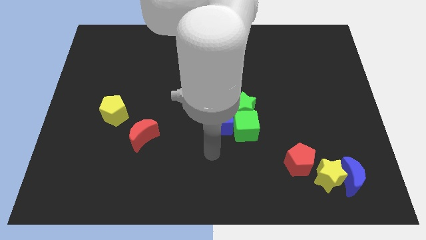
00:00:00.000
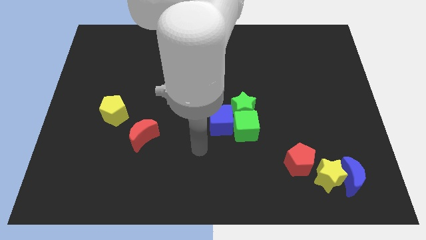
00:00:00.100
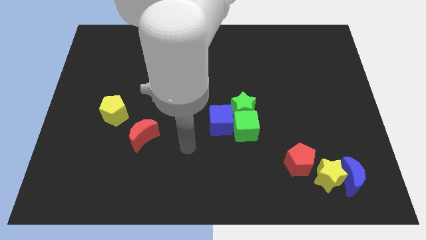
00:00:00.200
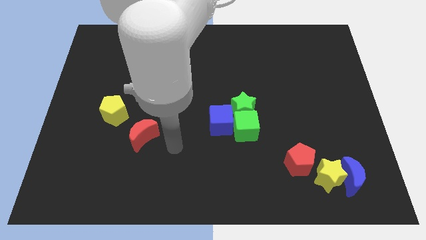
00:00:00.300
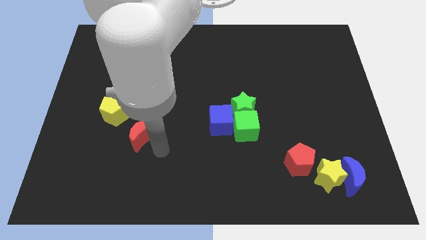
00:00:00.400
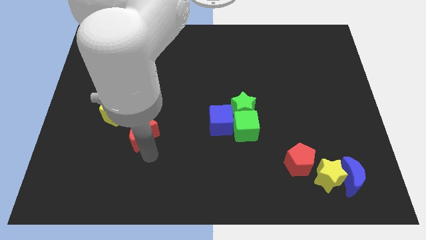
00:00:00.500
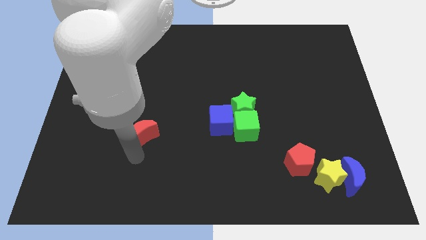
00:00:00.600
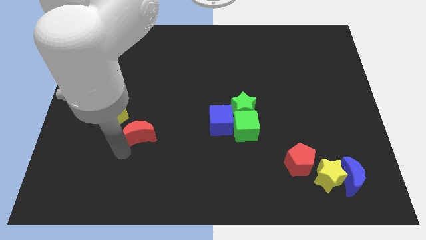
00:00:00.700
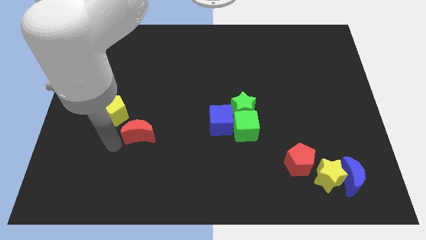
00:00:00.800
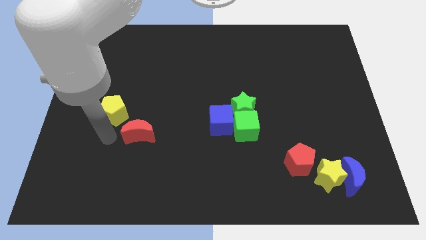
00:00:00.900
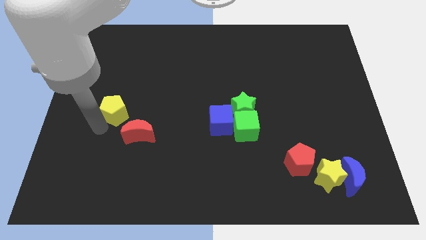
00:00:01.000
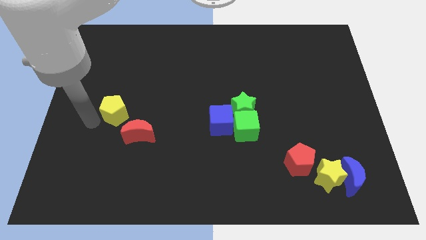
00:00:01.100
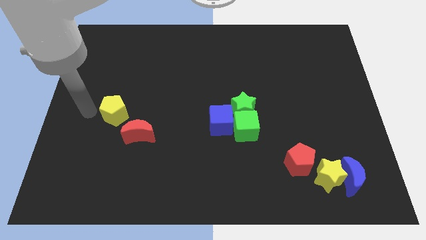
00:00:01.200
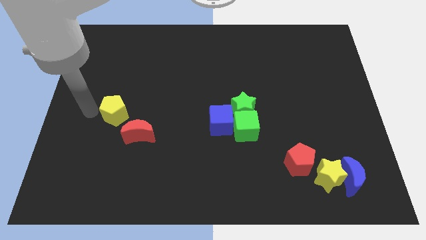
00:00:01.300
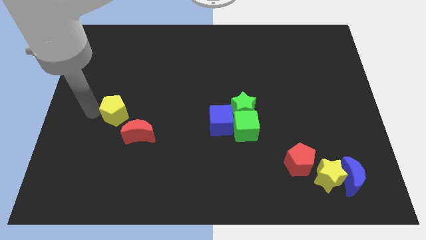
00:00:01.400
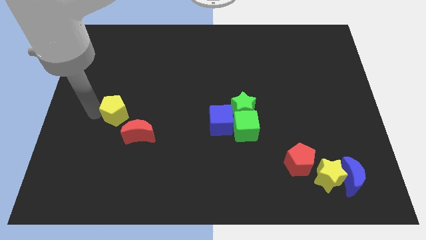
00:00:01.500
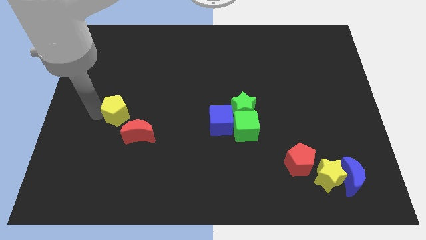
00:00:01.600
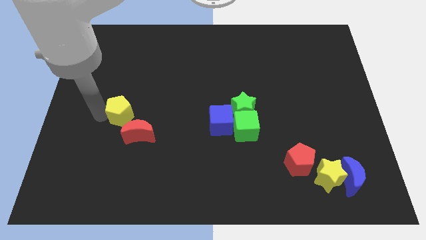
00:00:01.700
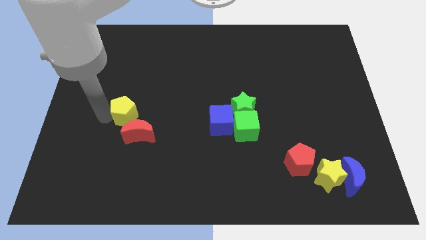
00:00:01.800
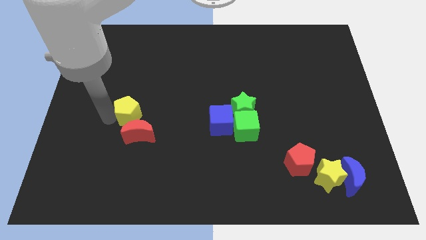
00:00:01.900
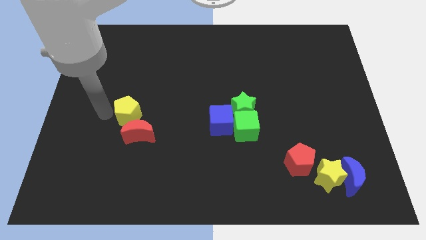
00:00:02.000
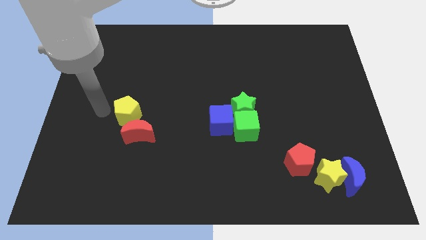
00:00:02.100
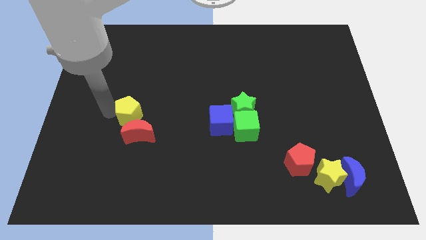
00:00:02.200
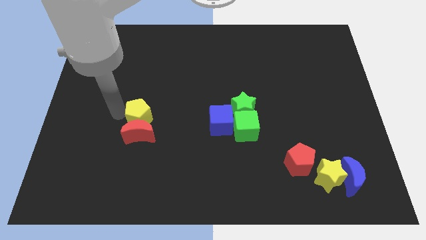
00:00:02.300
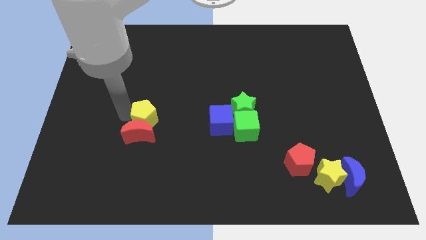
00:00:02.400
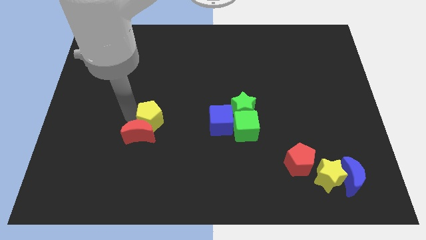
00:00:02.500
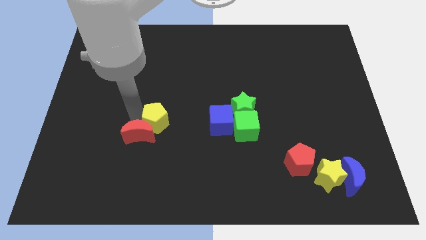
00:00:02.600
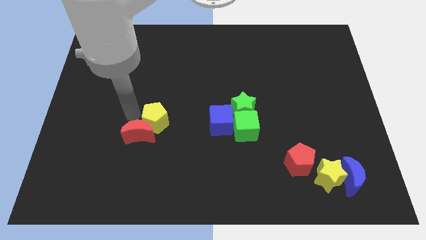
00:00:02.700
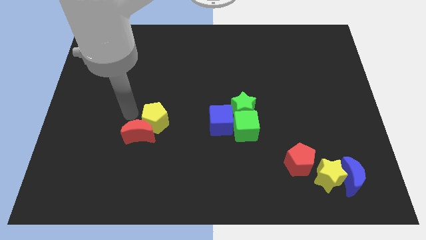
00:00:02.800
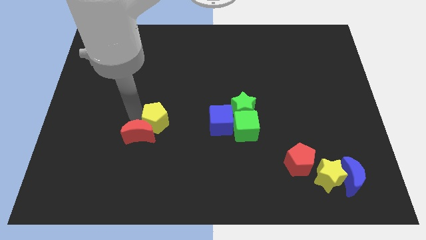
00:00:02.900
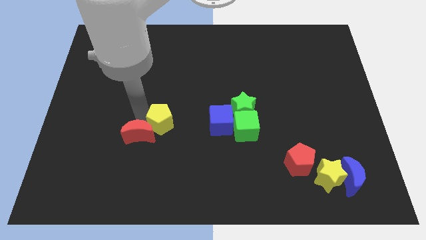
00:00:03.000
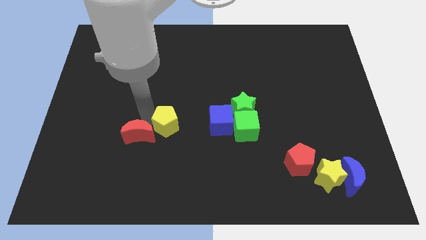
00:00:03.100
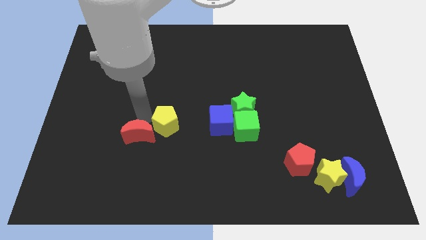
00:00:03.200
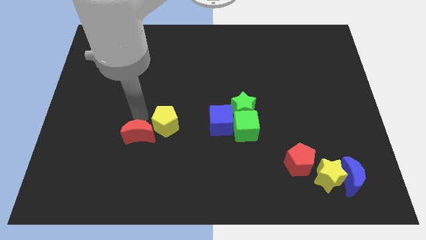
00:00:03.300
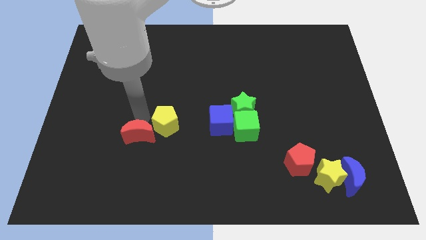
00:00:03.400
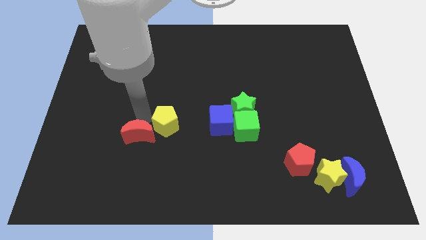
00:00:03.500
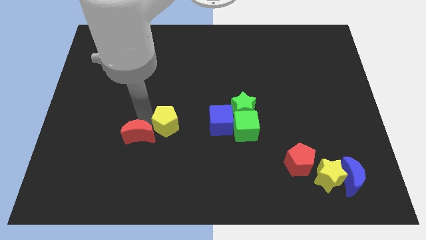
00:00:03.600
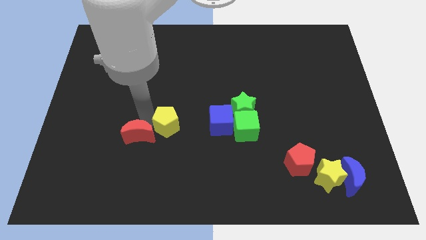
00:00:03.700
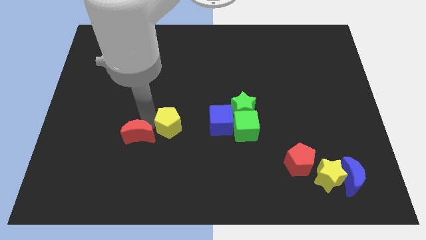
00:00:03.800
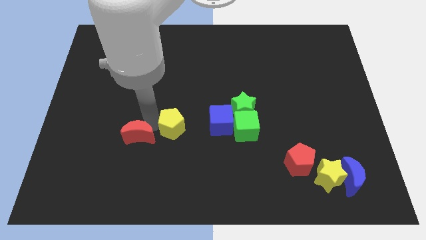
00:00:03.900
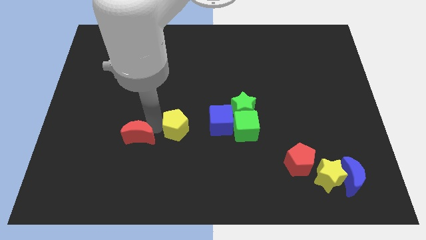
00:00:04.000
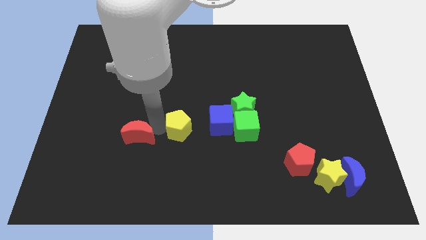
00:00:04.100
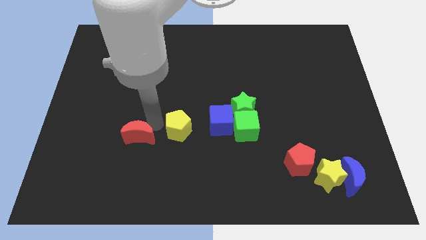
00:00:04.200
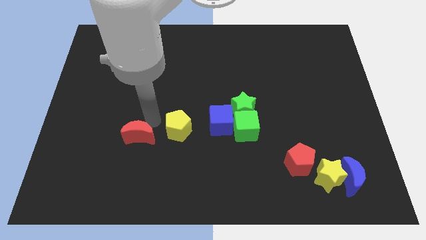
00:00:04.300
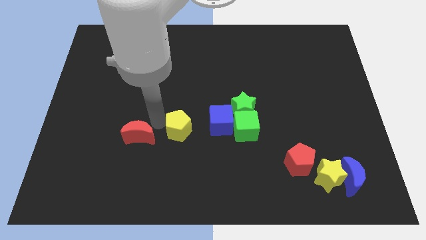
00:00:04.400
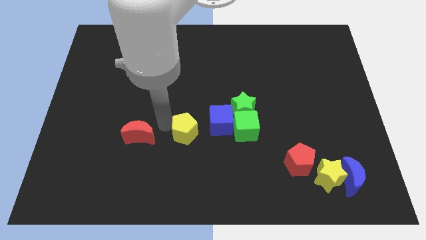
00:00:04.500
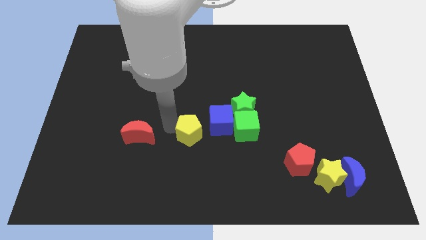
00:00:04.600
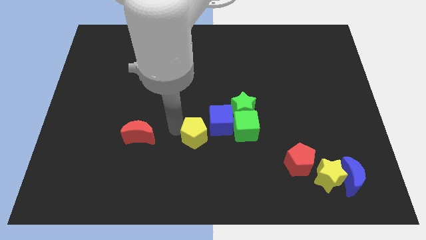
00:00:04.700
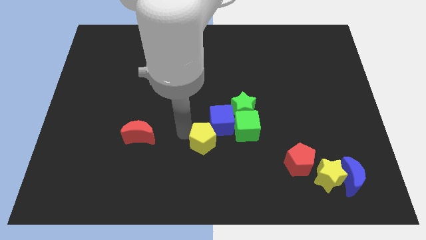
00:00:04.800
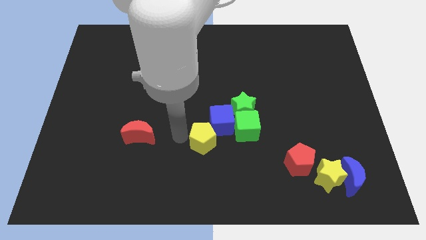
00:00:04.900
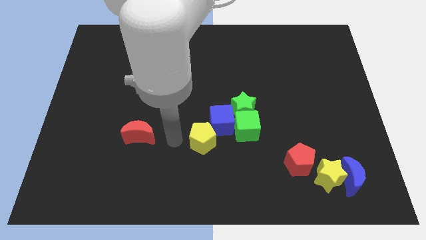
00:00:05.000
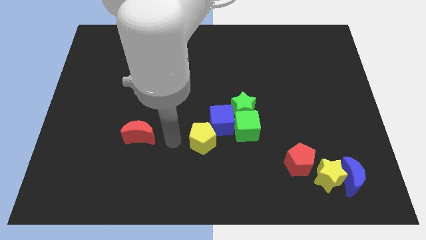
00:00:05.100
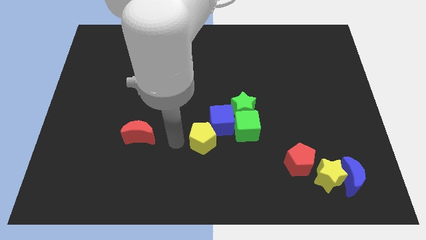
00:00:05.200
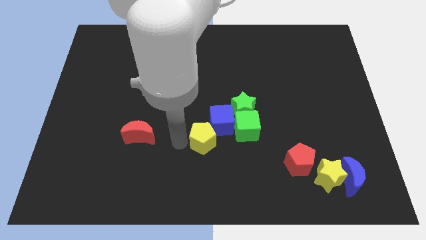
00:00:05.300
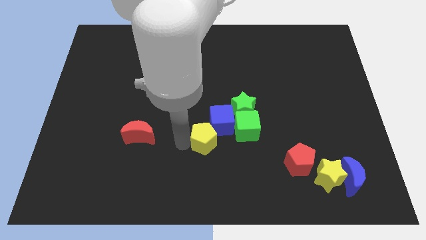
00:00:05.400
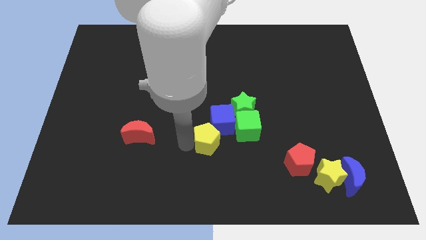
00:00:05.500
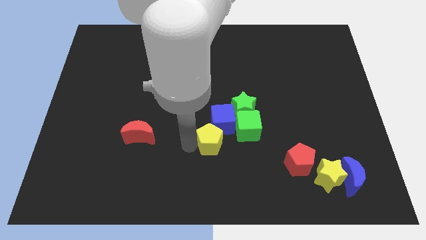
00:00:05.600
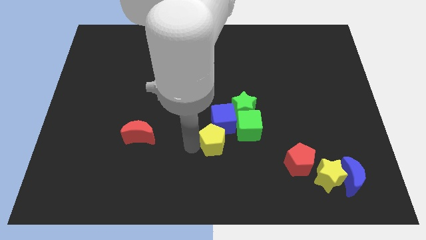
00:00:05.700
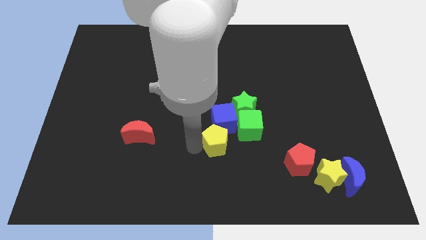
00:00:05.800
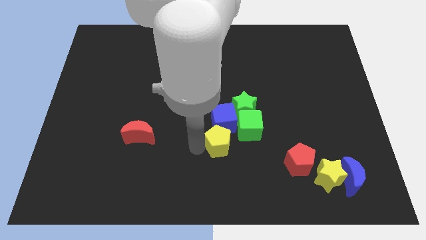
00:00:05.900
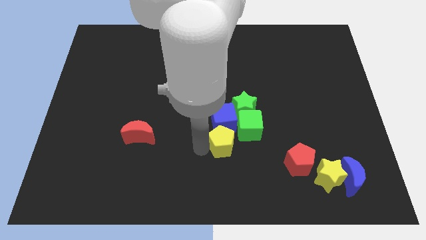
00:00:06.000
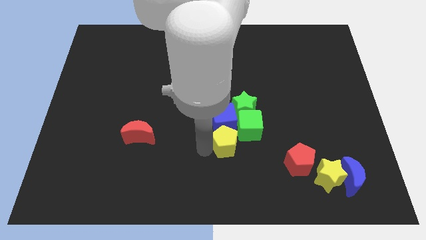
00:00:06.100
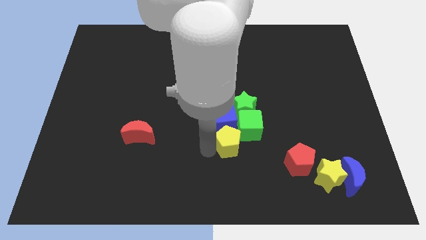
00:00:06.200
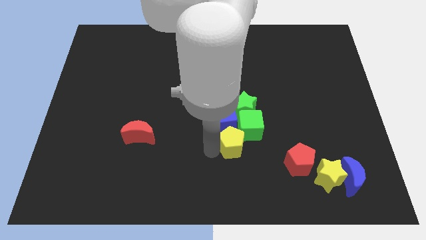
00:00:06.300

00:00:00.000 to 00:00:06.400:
push the yellow pentagon to the green cube

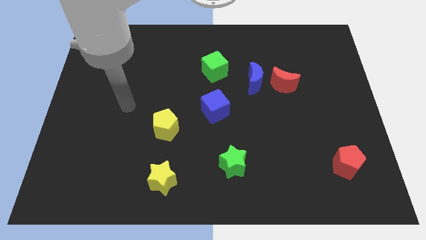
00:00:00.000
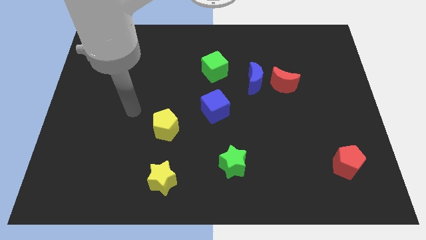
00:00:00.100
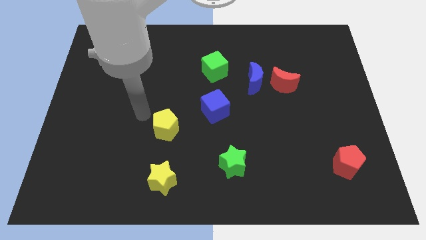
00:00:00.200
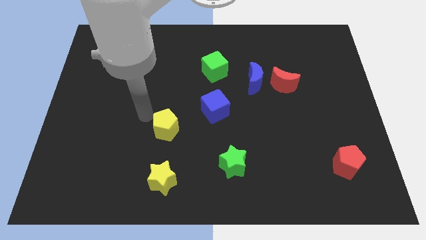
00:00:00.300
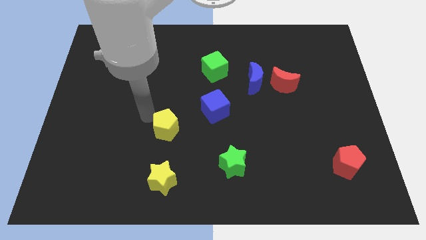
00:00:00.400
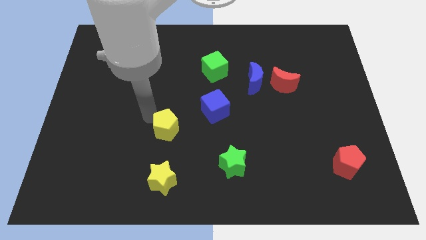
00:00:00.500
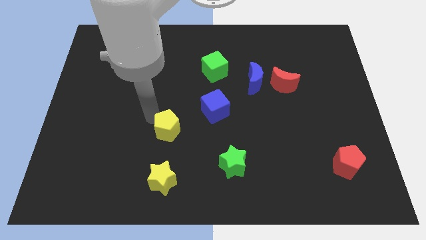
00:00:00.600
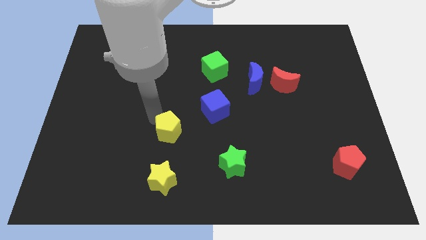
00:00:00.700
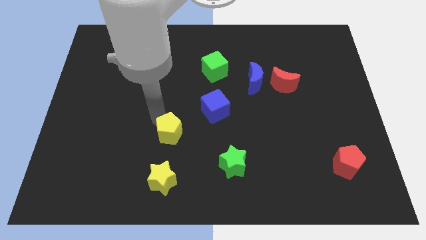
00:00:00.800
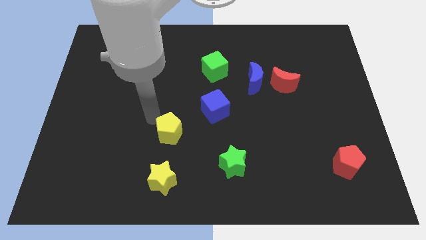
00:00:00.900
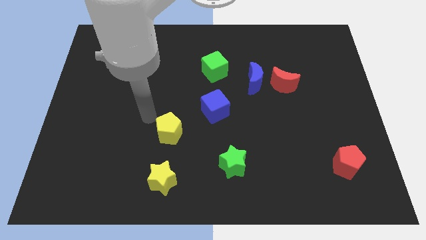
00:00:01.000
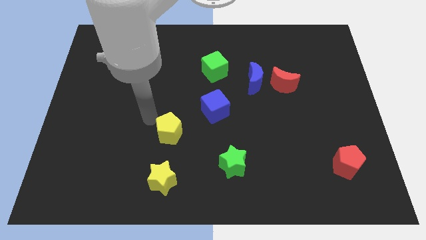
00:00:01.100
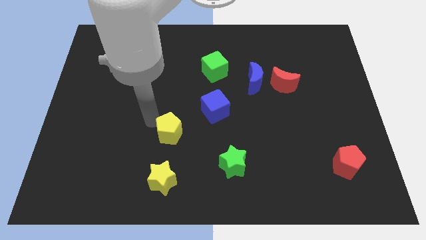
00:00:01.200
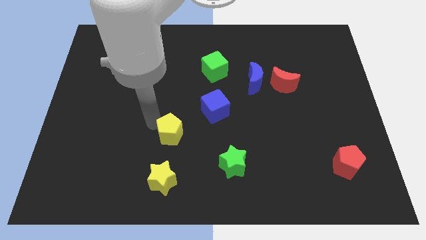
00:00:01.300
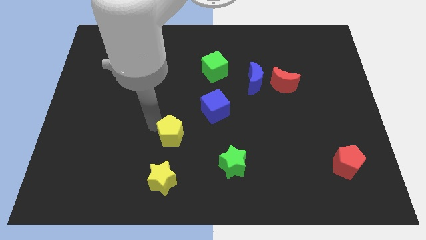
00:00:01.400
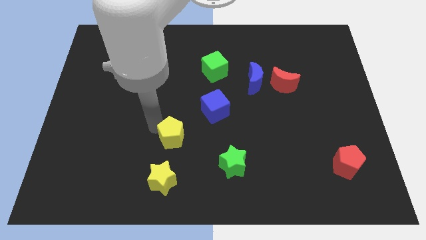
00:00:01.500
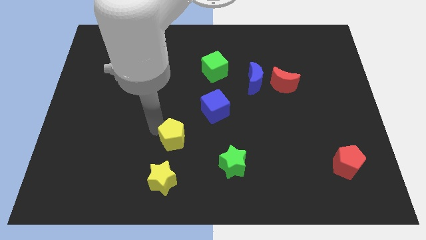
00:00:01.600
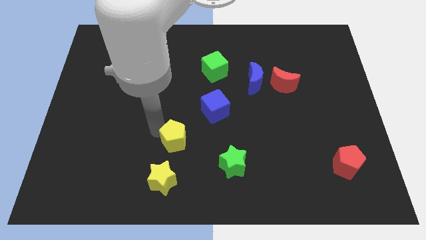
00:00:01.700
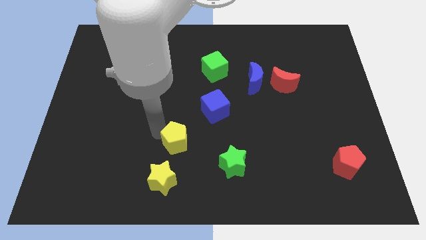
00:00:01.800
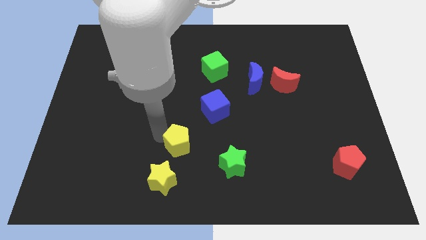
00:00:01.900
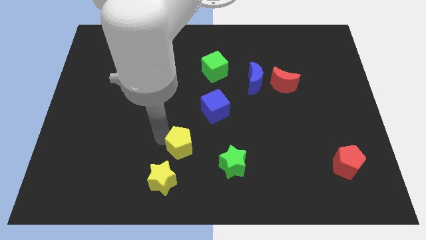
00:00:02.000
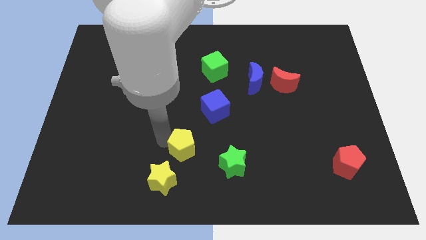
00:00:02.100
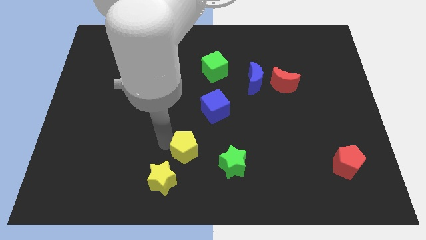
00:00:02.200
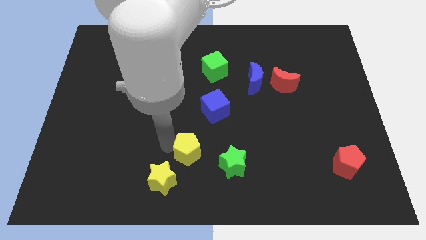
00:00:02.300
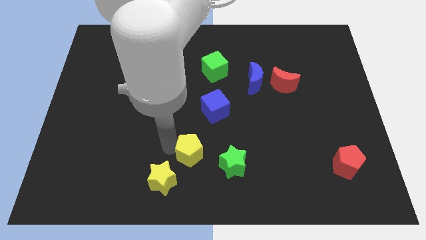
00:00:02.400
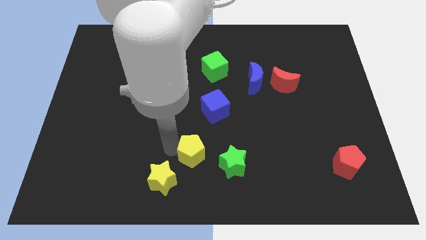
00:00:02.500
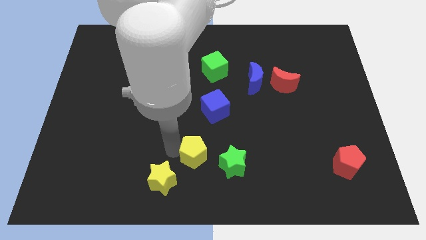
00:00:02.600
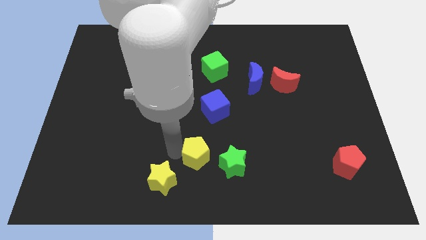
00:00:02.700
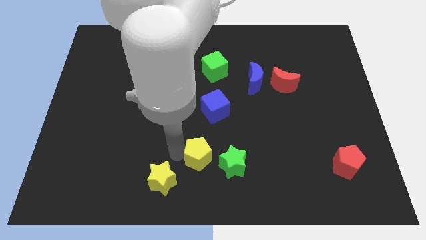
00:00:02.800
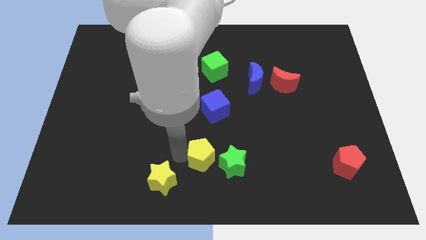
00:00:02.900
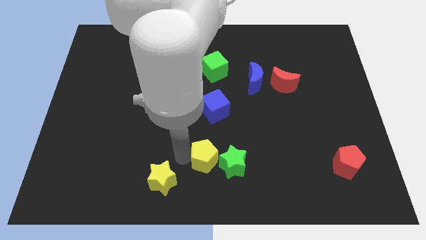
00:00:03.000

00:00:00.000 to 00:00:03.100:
slide the yellow pentagon to the green star
